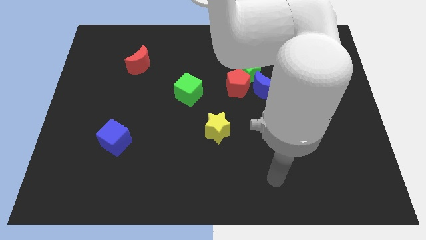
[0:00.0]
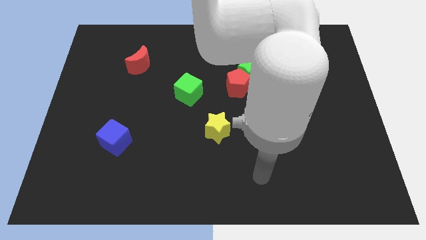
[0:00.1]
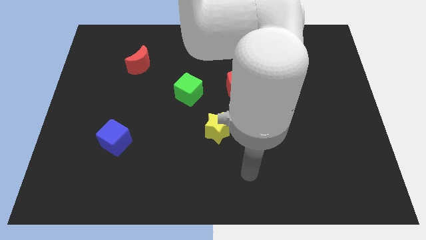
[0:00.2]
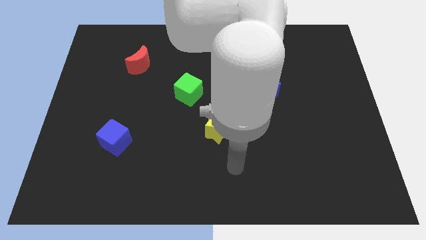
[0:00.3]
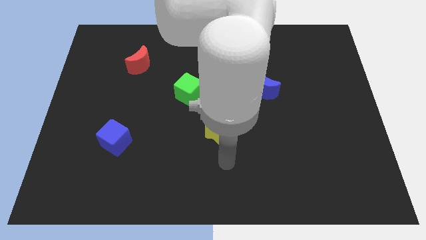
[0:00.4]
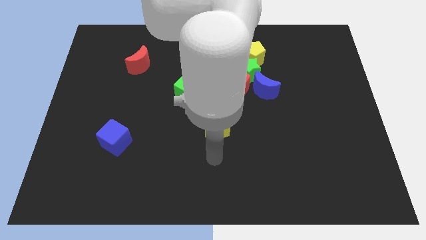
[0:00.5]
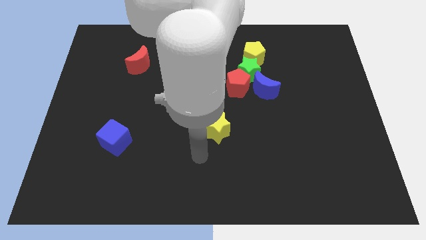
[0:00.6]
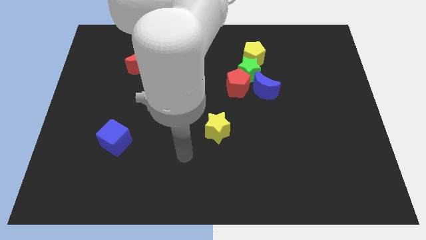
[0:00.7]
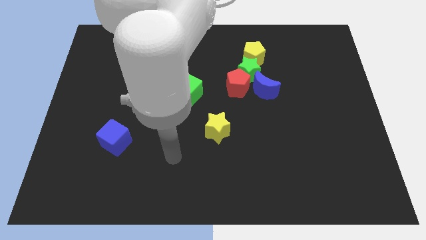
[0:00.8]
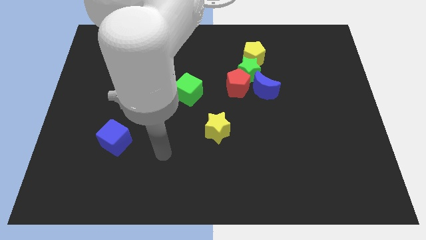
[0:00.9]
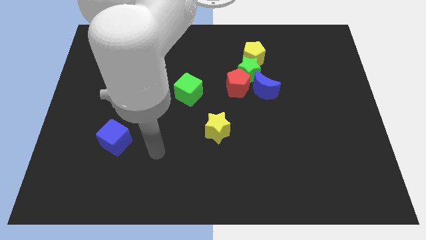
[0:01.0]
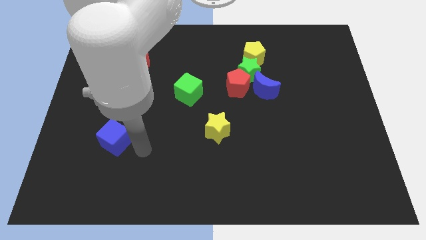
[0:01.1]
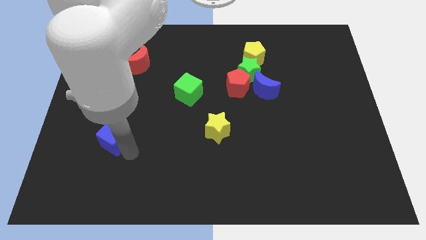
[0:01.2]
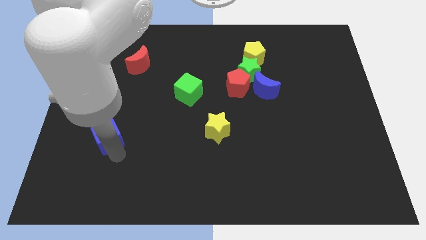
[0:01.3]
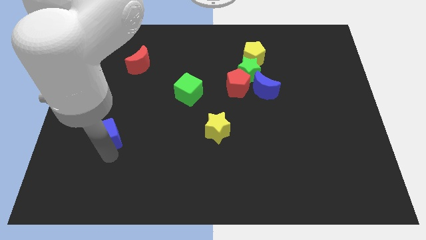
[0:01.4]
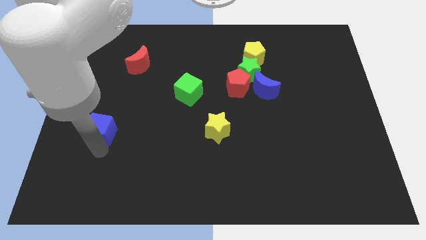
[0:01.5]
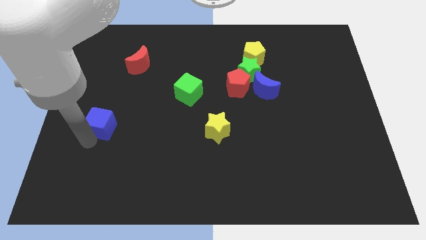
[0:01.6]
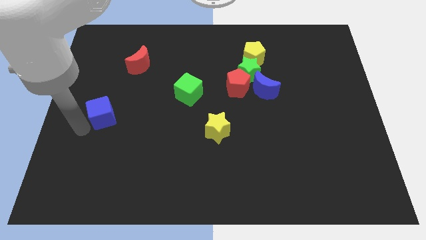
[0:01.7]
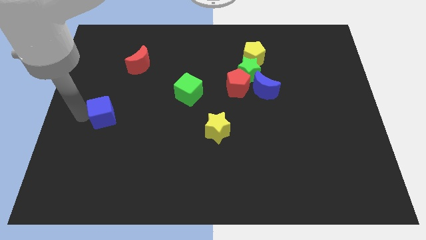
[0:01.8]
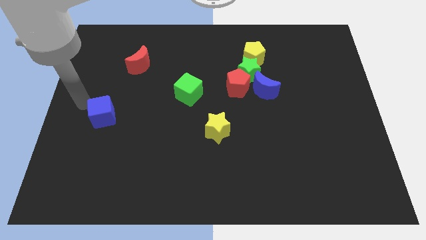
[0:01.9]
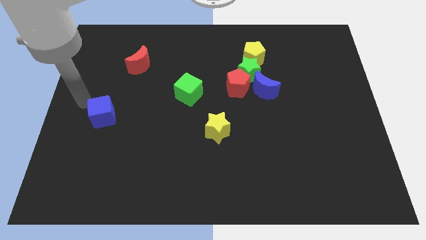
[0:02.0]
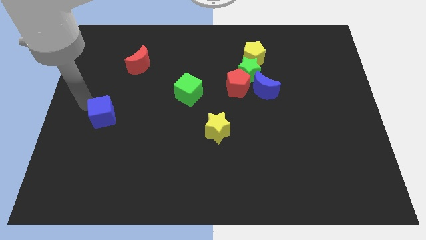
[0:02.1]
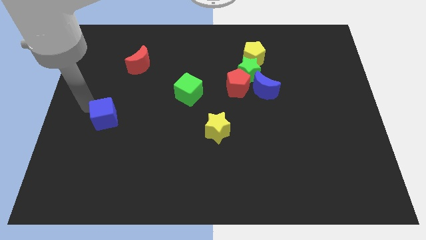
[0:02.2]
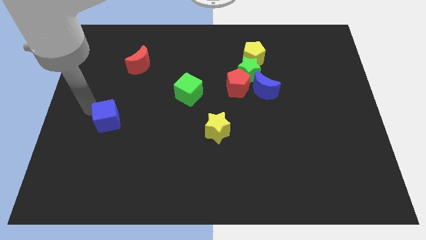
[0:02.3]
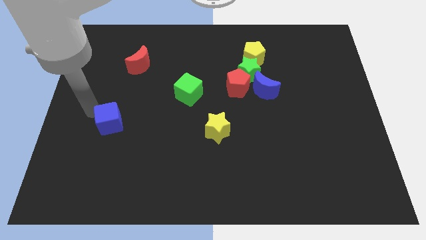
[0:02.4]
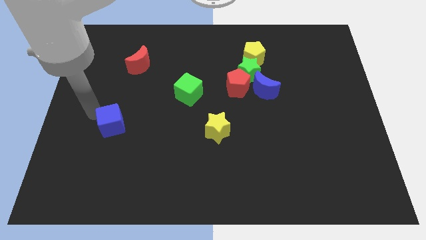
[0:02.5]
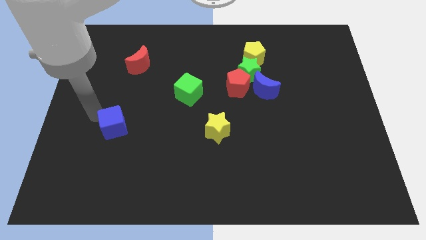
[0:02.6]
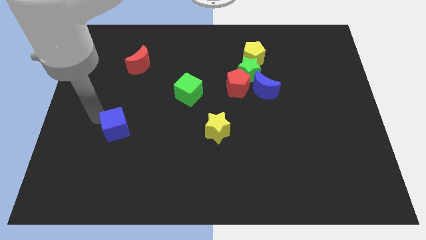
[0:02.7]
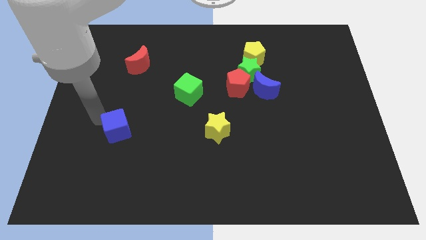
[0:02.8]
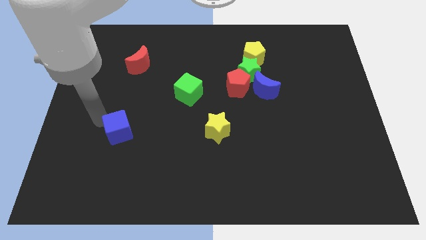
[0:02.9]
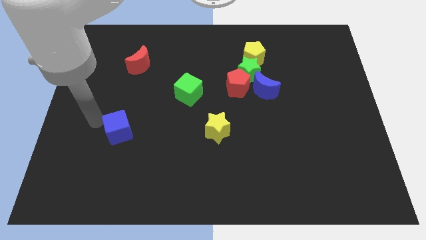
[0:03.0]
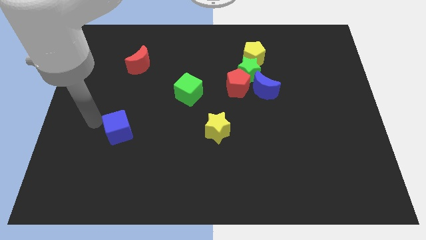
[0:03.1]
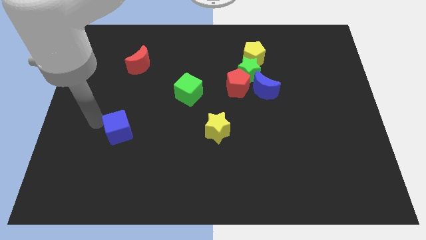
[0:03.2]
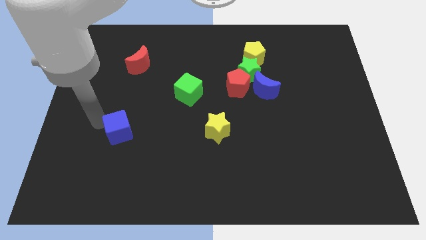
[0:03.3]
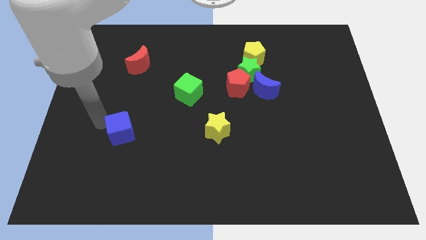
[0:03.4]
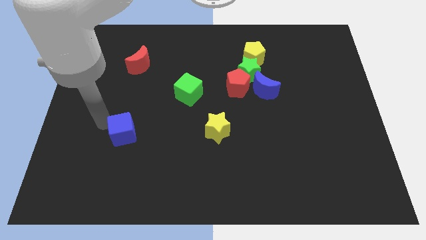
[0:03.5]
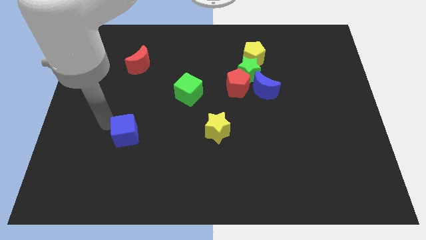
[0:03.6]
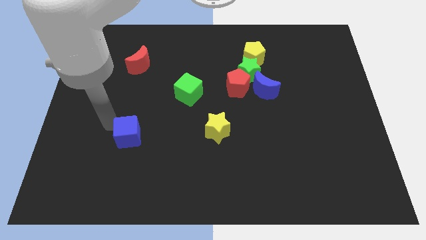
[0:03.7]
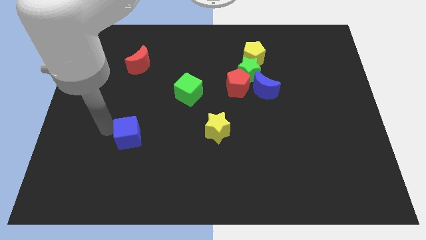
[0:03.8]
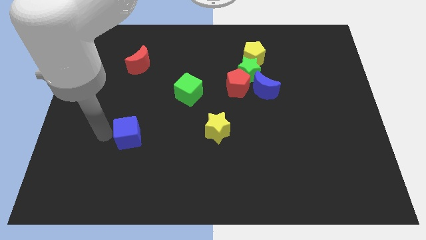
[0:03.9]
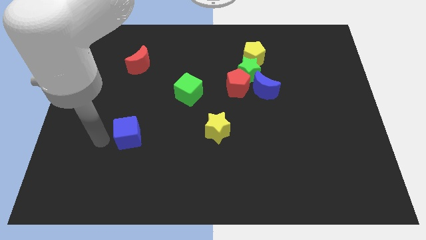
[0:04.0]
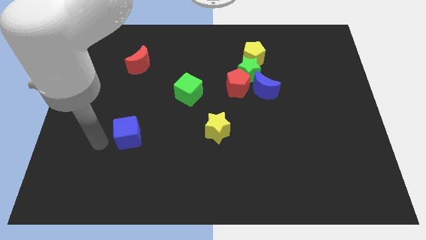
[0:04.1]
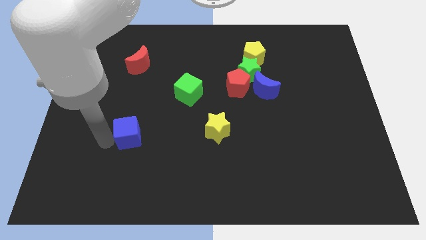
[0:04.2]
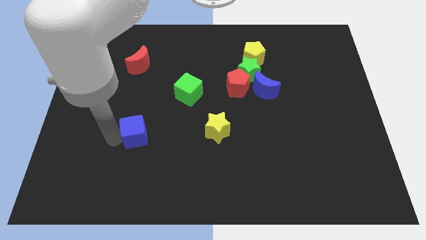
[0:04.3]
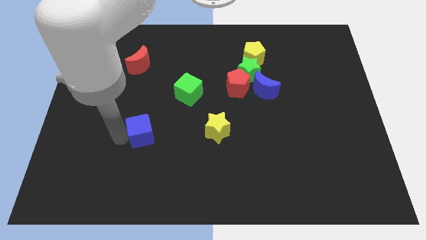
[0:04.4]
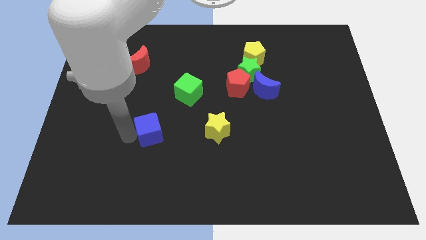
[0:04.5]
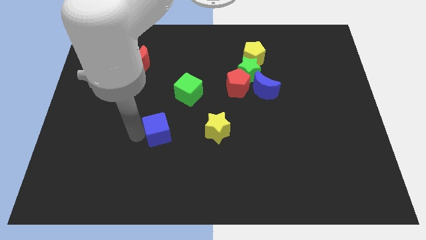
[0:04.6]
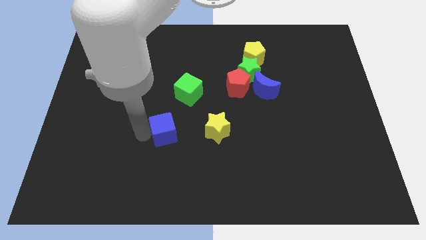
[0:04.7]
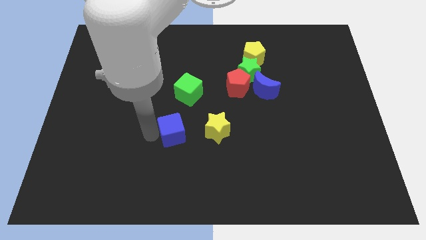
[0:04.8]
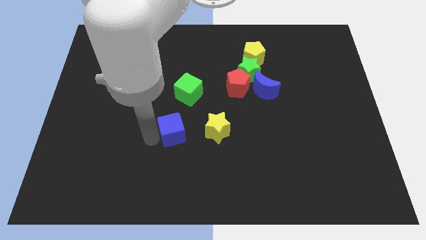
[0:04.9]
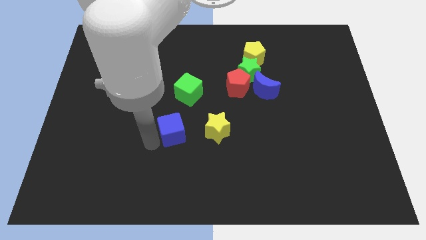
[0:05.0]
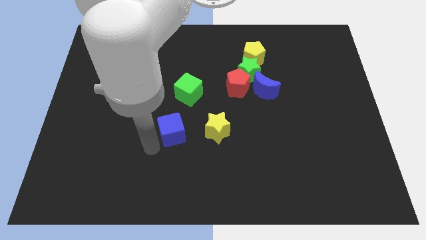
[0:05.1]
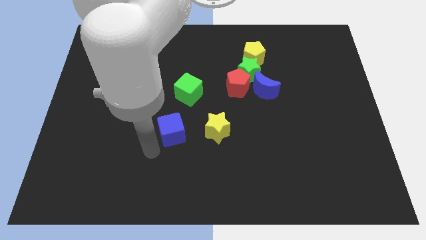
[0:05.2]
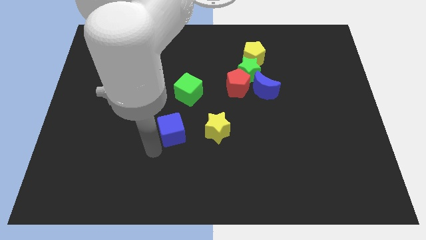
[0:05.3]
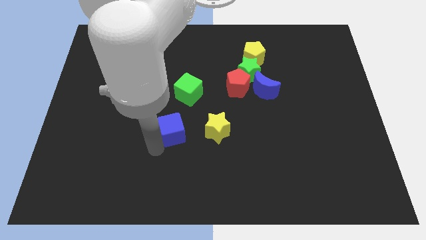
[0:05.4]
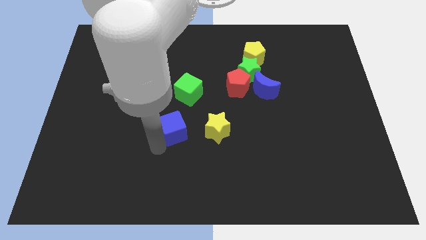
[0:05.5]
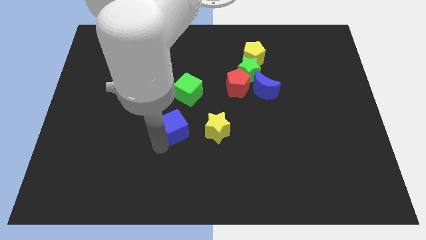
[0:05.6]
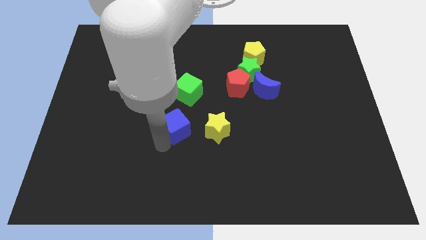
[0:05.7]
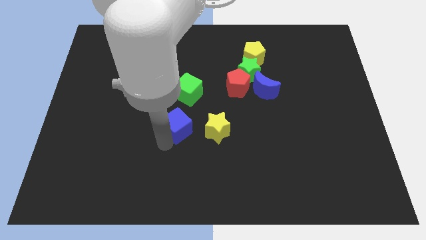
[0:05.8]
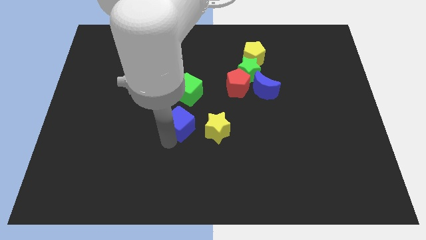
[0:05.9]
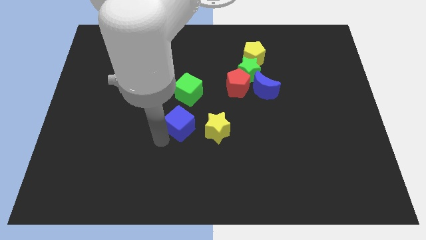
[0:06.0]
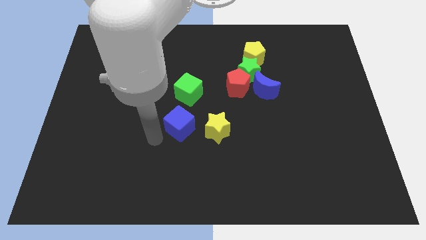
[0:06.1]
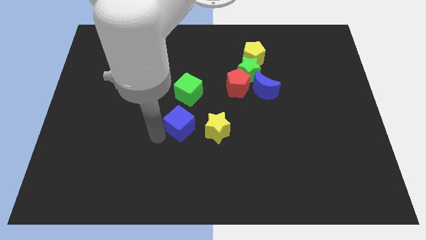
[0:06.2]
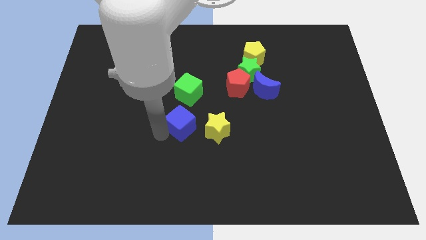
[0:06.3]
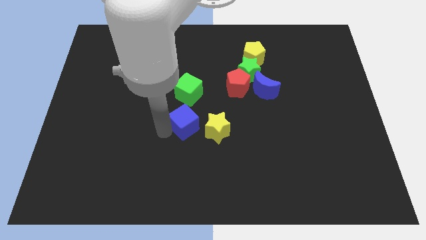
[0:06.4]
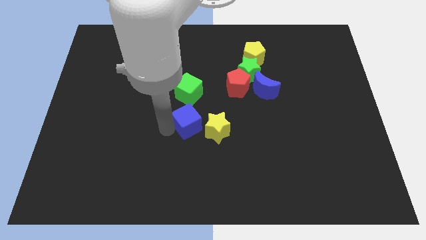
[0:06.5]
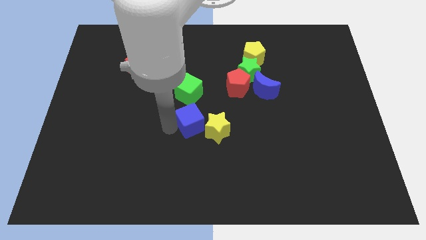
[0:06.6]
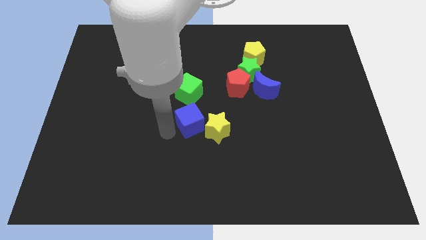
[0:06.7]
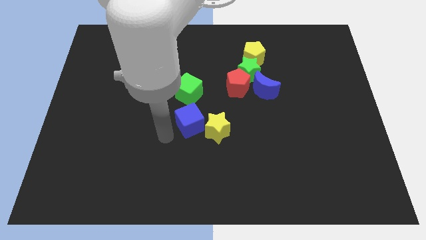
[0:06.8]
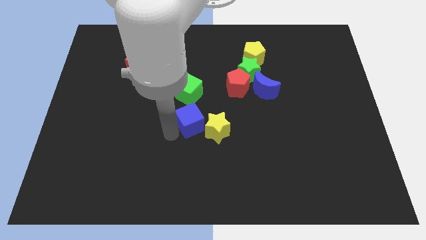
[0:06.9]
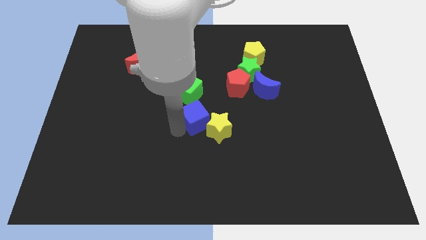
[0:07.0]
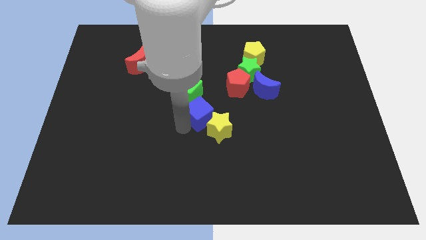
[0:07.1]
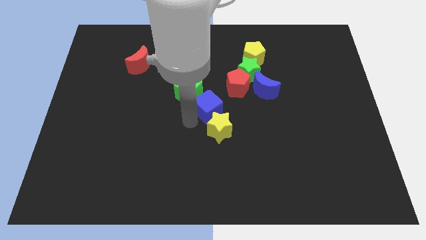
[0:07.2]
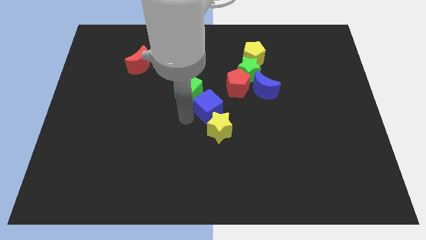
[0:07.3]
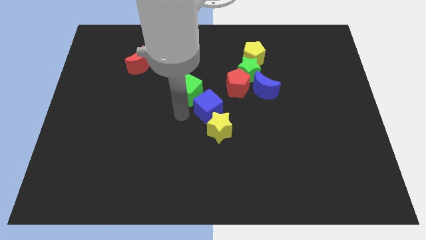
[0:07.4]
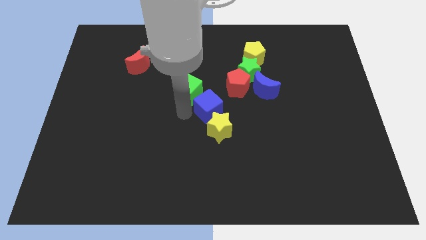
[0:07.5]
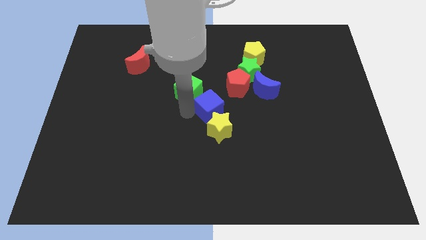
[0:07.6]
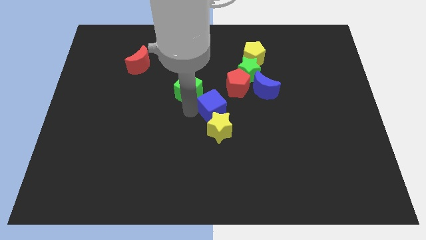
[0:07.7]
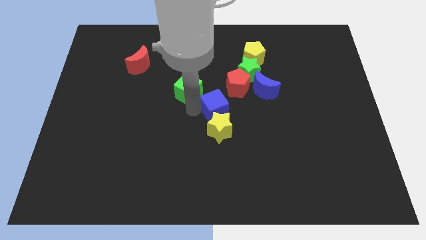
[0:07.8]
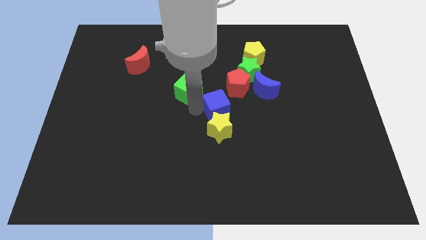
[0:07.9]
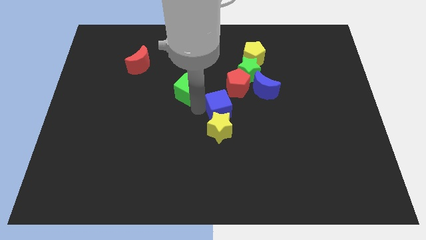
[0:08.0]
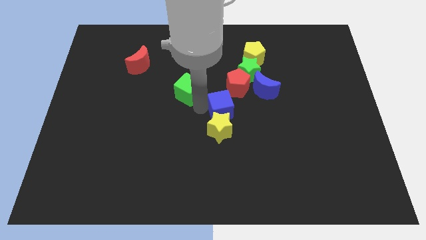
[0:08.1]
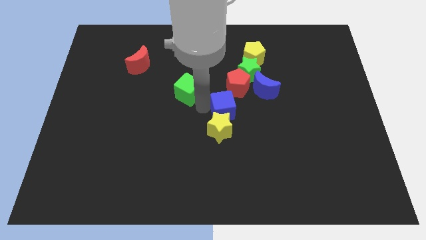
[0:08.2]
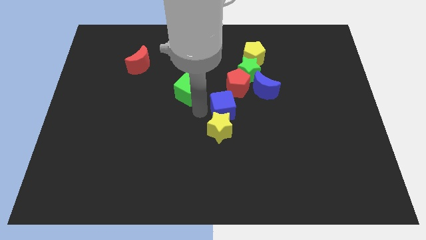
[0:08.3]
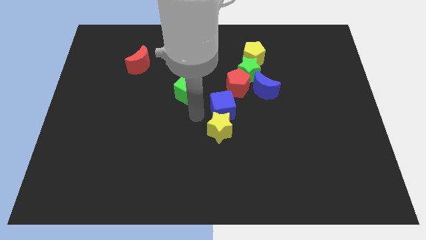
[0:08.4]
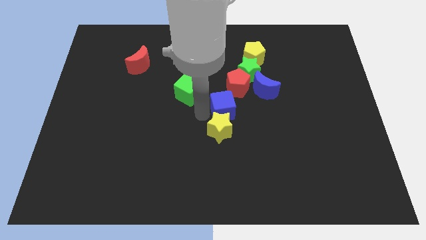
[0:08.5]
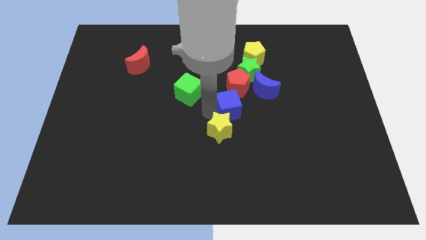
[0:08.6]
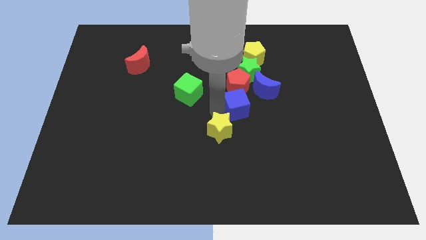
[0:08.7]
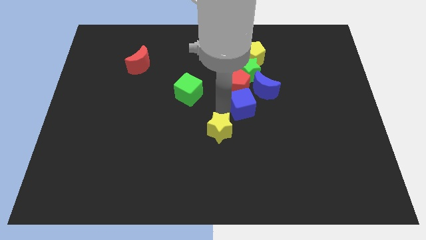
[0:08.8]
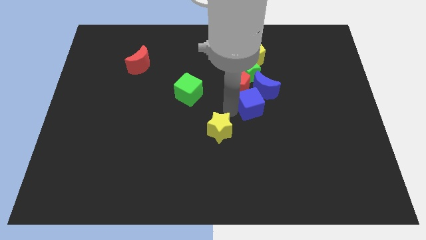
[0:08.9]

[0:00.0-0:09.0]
put the blue cube next to the blue moon
